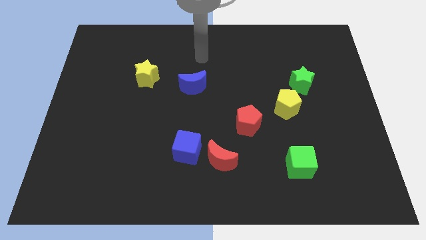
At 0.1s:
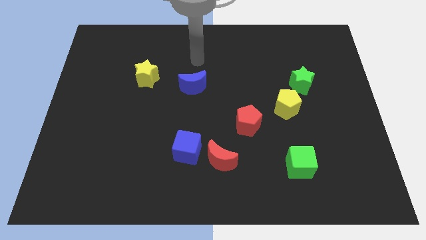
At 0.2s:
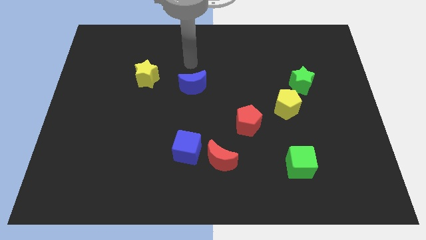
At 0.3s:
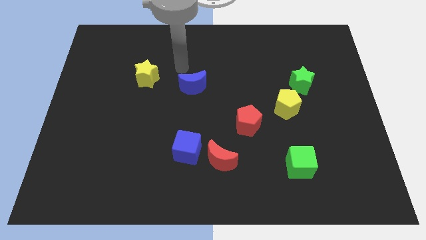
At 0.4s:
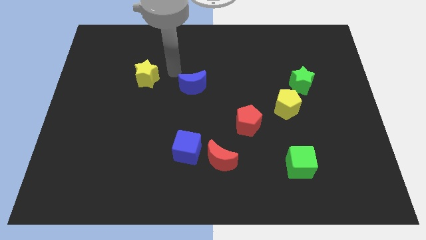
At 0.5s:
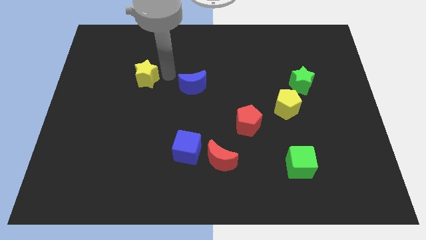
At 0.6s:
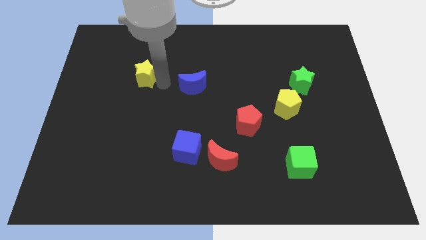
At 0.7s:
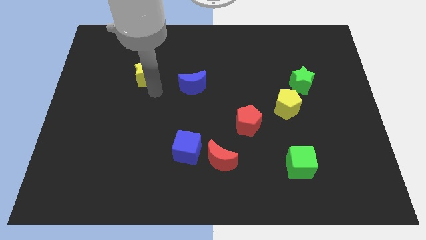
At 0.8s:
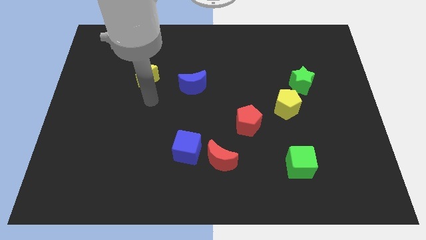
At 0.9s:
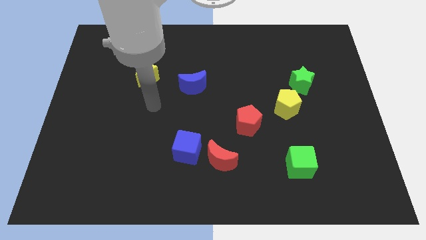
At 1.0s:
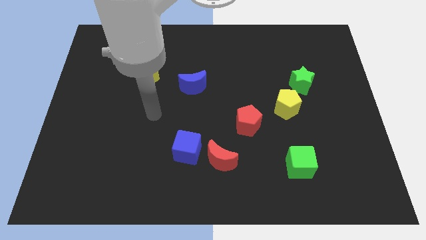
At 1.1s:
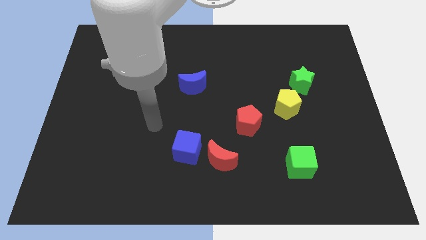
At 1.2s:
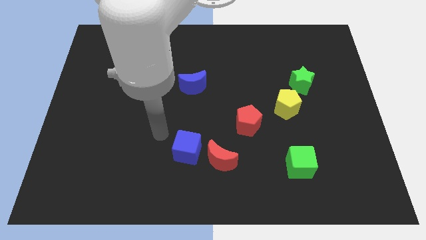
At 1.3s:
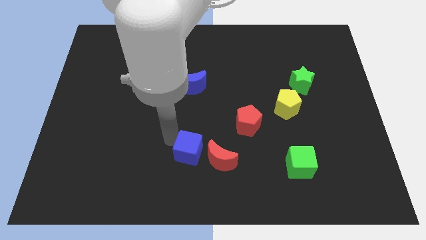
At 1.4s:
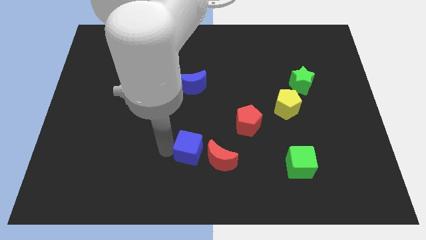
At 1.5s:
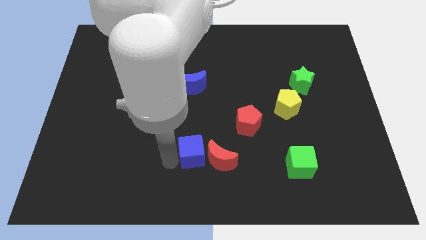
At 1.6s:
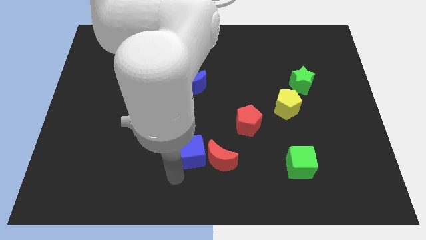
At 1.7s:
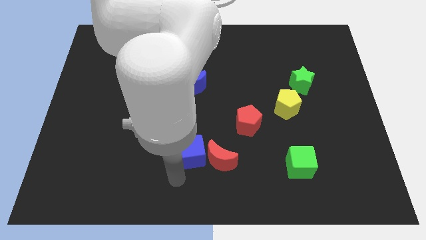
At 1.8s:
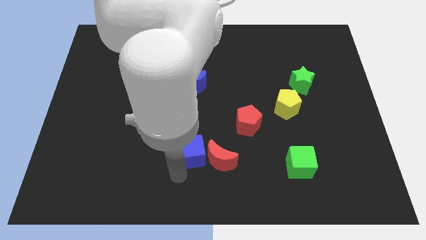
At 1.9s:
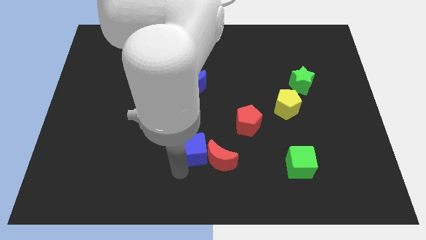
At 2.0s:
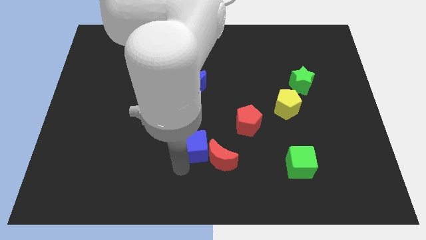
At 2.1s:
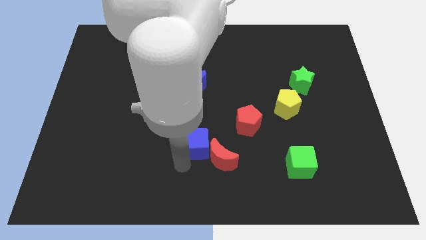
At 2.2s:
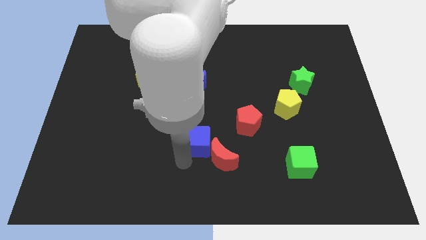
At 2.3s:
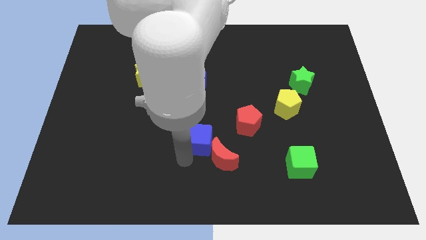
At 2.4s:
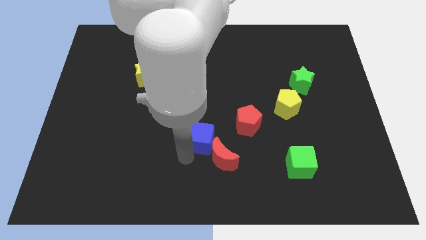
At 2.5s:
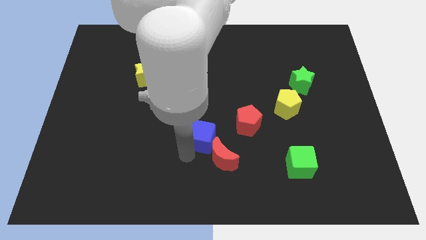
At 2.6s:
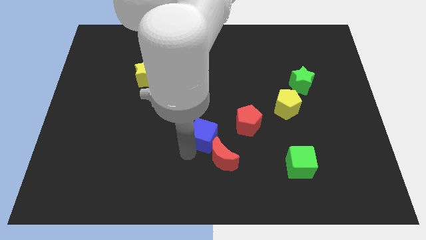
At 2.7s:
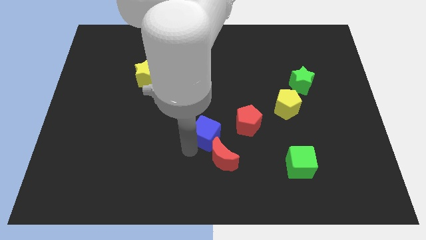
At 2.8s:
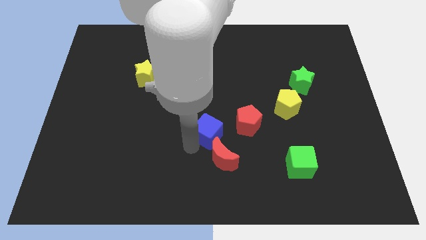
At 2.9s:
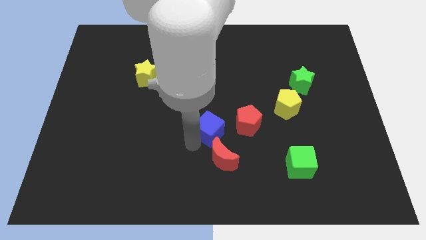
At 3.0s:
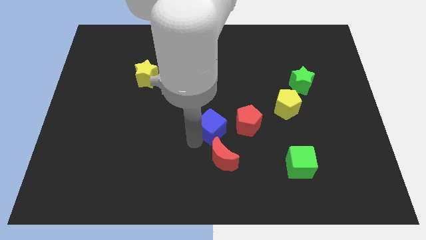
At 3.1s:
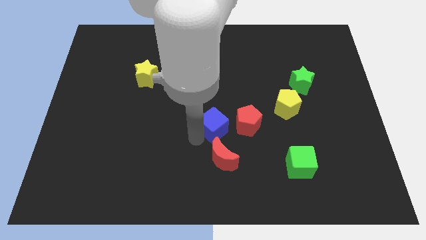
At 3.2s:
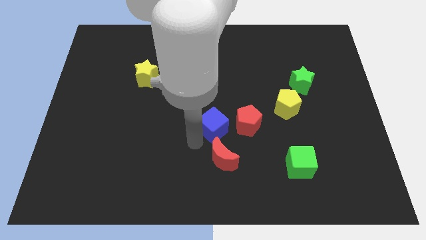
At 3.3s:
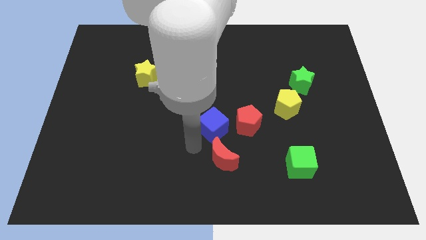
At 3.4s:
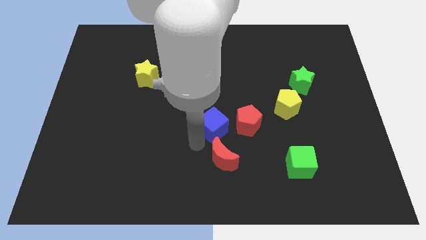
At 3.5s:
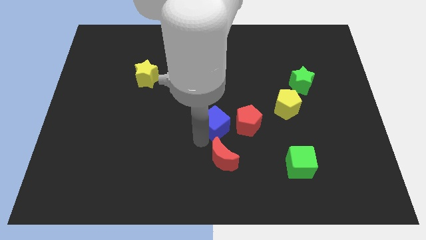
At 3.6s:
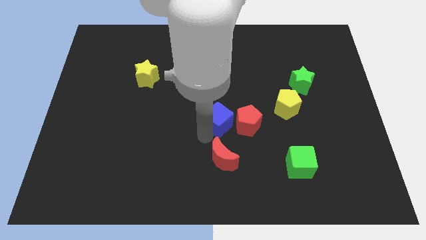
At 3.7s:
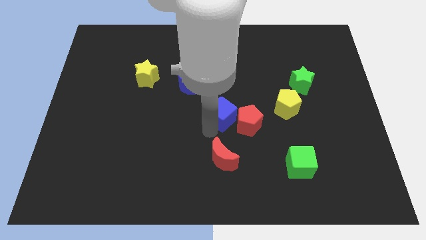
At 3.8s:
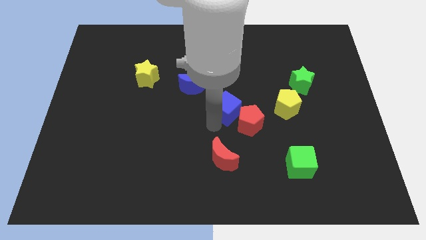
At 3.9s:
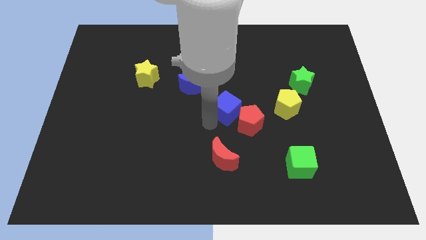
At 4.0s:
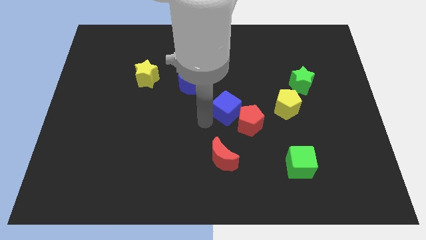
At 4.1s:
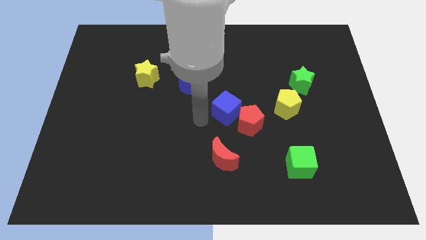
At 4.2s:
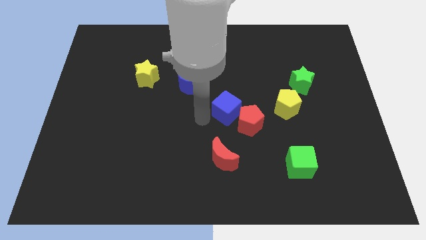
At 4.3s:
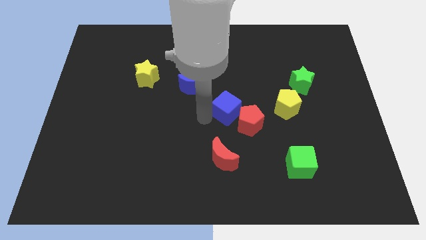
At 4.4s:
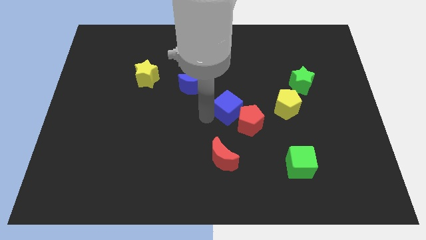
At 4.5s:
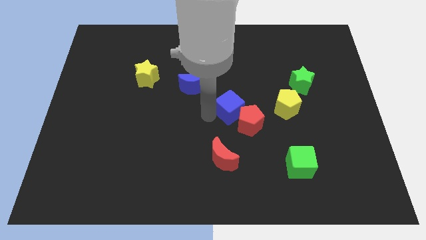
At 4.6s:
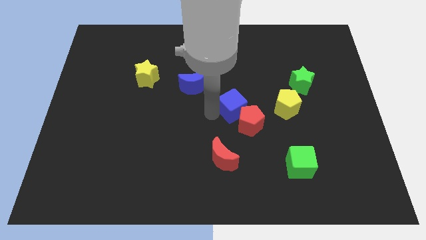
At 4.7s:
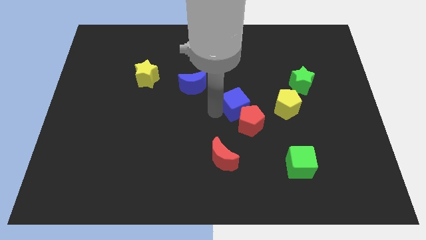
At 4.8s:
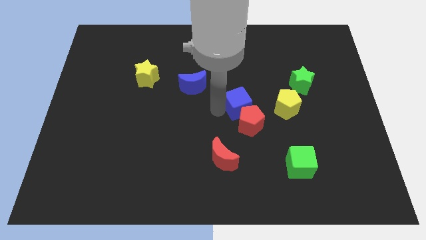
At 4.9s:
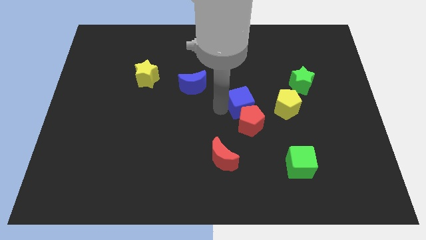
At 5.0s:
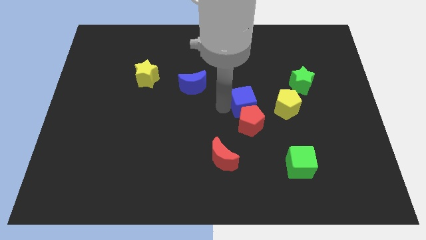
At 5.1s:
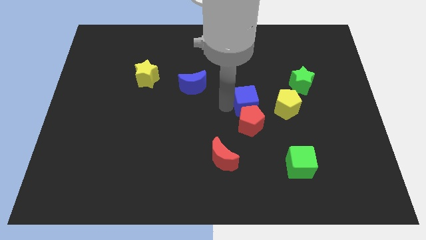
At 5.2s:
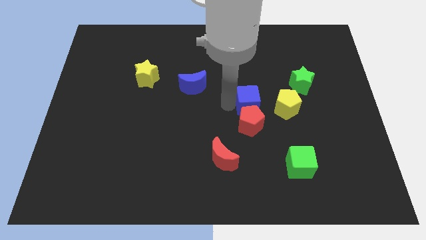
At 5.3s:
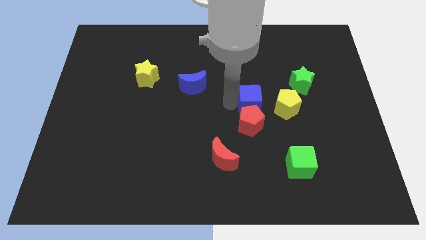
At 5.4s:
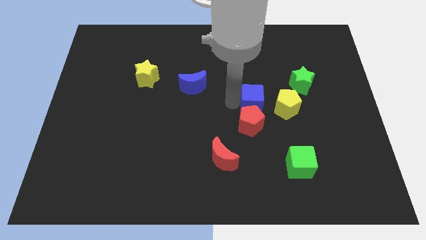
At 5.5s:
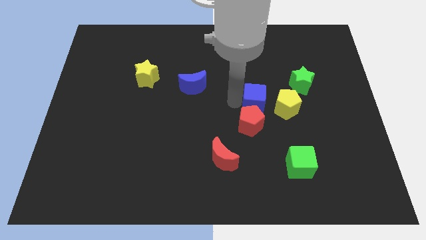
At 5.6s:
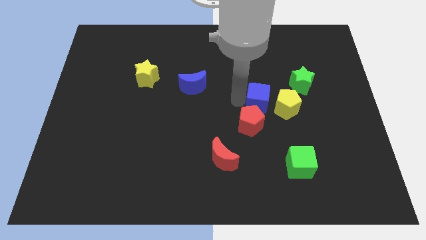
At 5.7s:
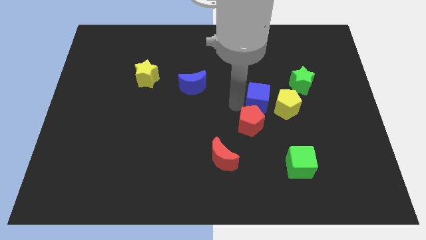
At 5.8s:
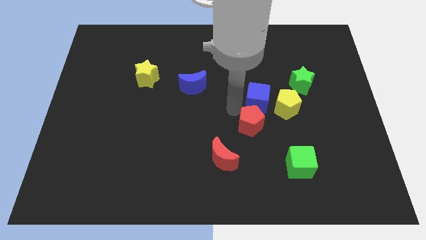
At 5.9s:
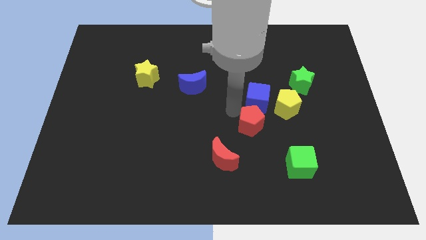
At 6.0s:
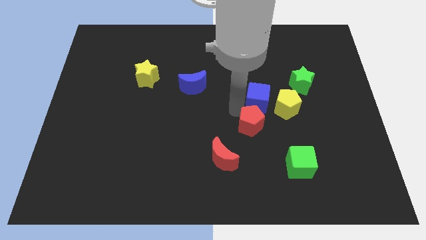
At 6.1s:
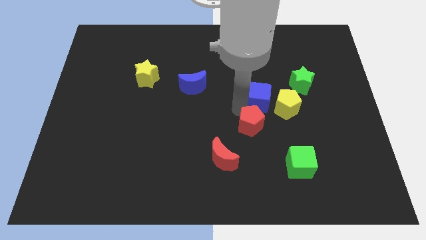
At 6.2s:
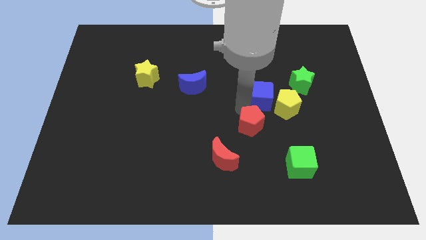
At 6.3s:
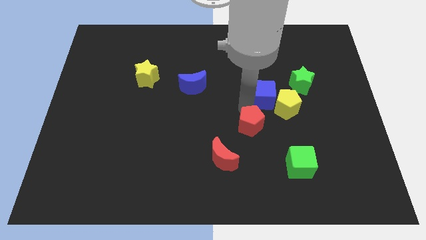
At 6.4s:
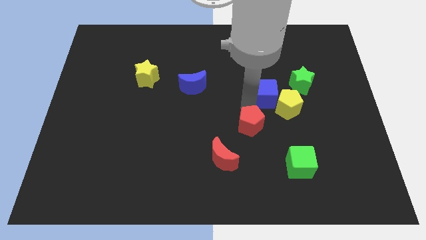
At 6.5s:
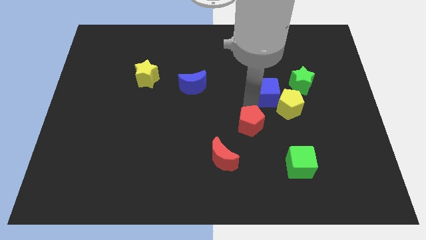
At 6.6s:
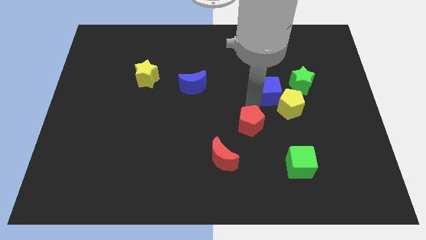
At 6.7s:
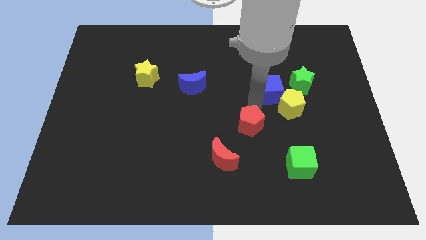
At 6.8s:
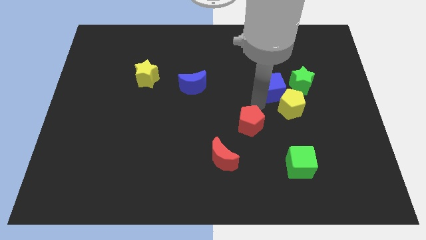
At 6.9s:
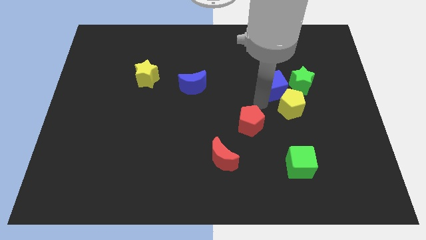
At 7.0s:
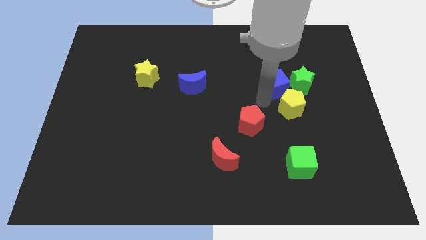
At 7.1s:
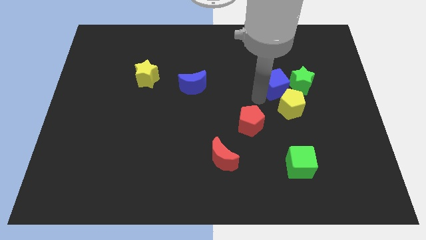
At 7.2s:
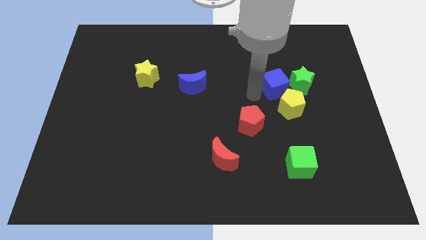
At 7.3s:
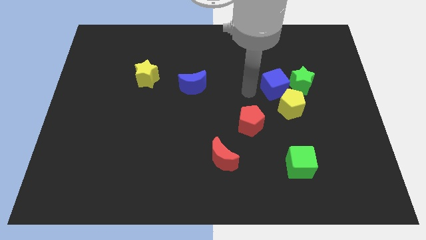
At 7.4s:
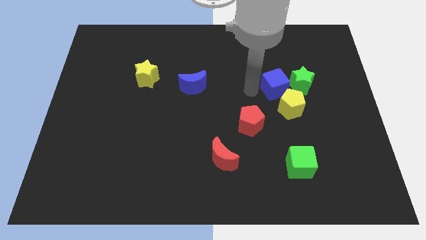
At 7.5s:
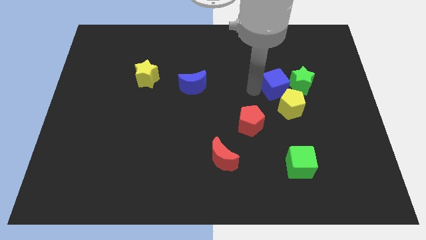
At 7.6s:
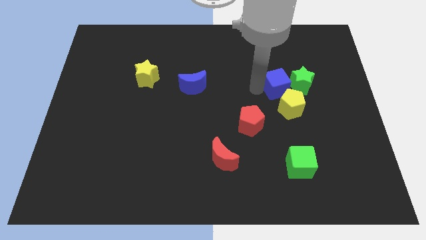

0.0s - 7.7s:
put the blue cube towards the green star
